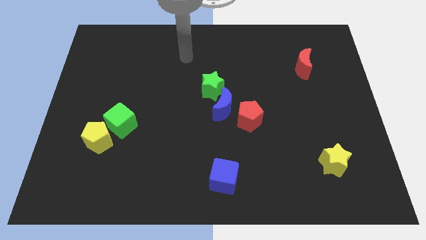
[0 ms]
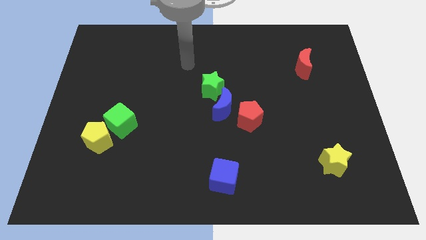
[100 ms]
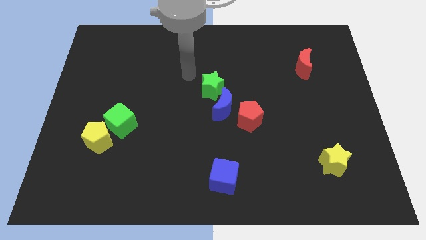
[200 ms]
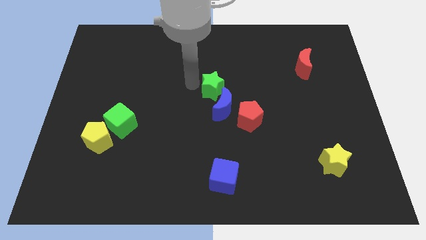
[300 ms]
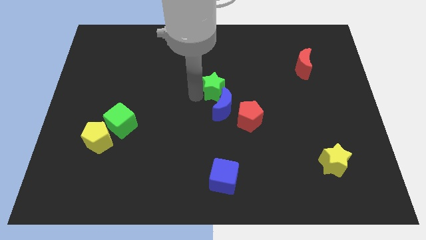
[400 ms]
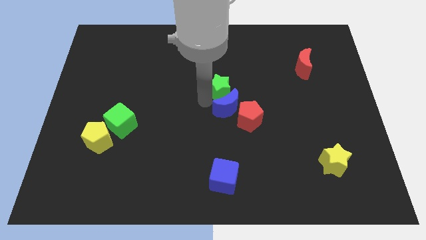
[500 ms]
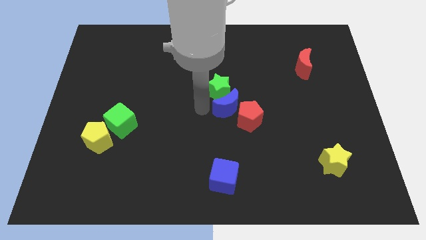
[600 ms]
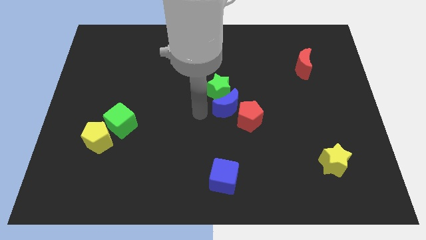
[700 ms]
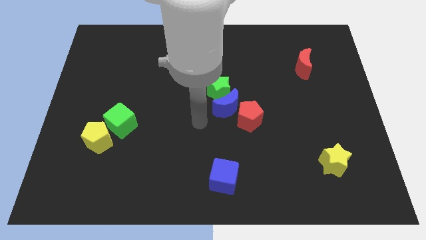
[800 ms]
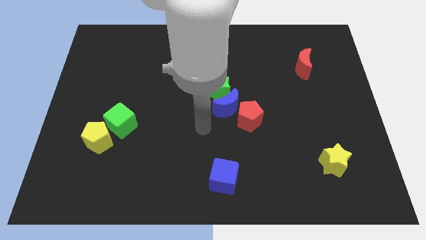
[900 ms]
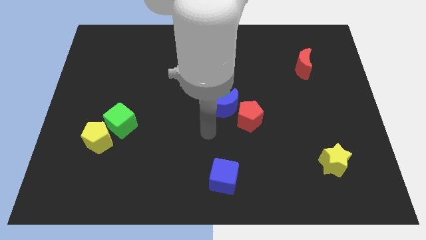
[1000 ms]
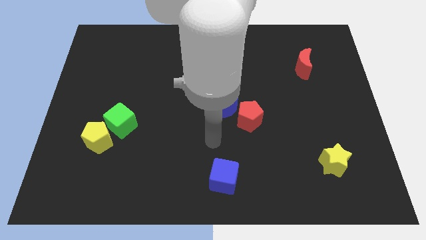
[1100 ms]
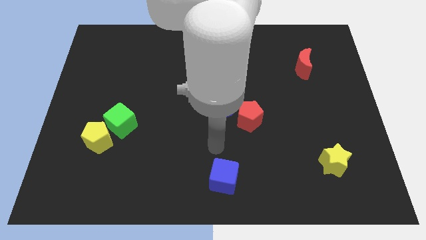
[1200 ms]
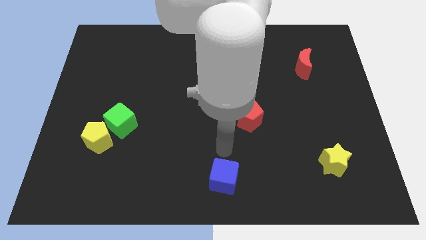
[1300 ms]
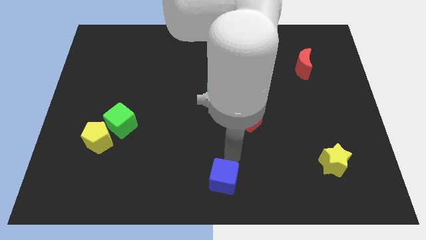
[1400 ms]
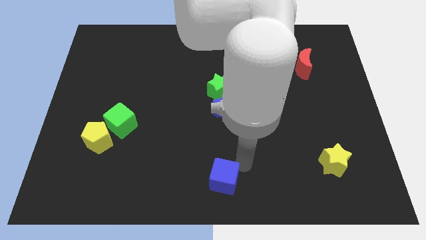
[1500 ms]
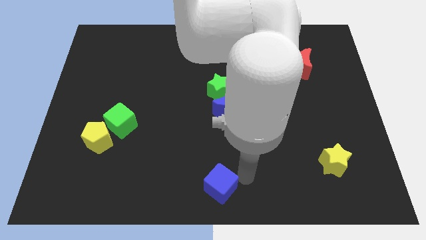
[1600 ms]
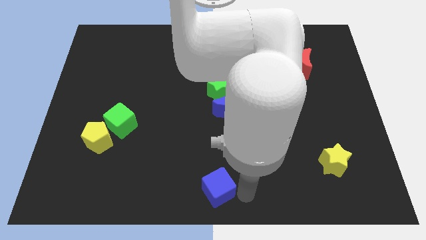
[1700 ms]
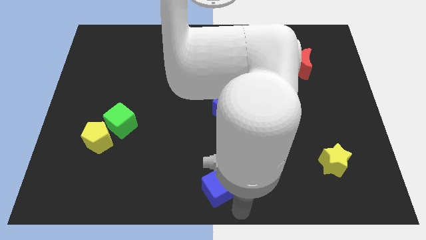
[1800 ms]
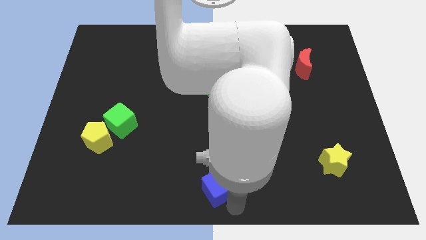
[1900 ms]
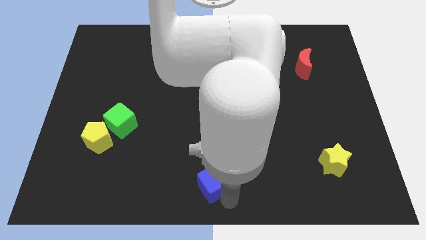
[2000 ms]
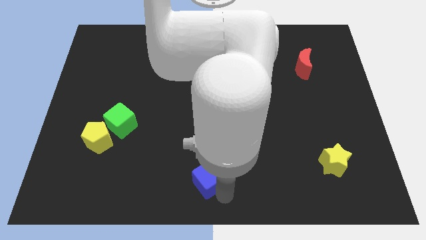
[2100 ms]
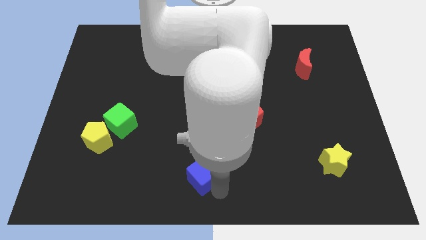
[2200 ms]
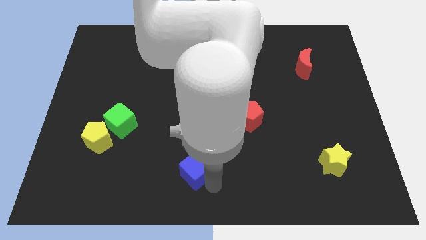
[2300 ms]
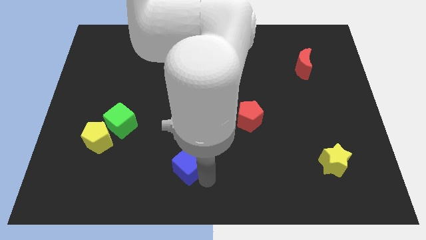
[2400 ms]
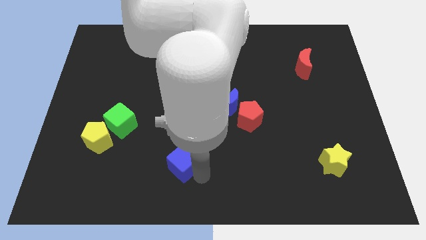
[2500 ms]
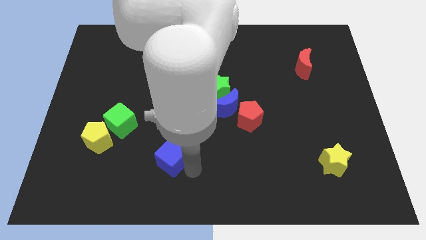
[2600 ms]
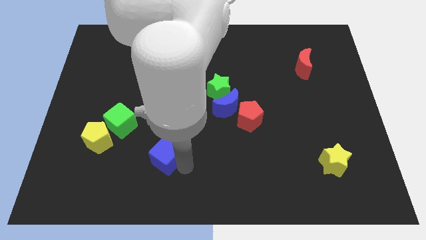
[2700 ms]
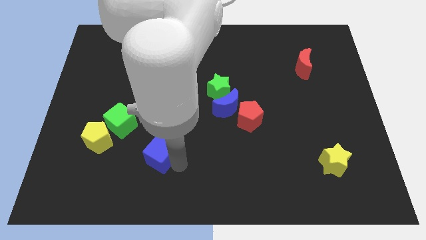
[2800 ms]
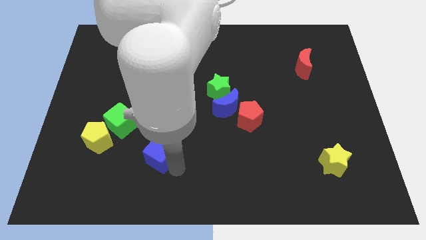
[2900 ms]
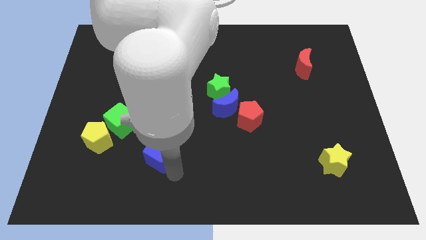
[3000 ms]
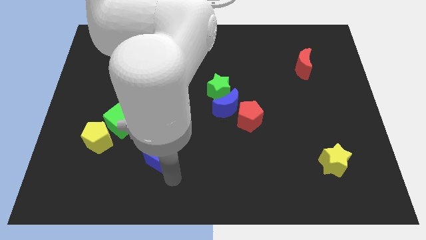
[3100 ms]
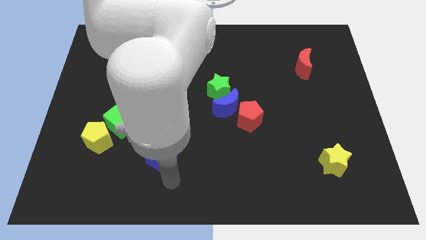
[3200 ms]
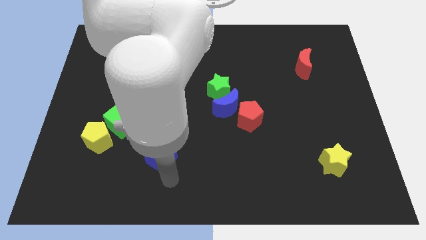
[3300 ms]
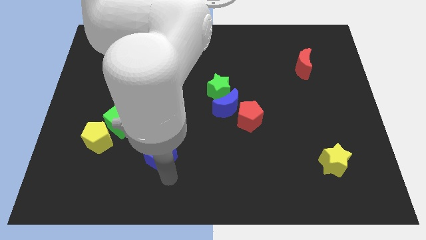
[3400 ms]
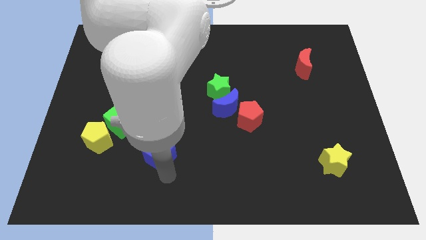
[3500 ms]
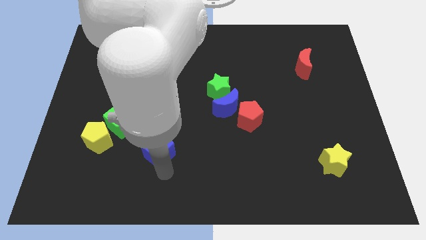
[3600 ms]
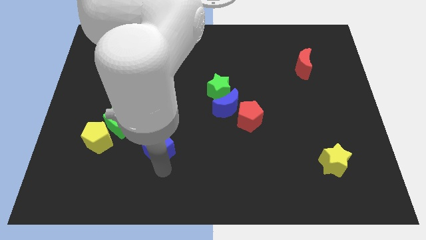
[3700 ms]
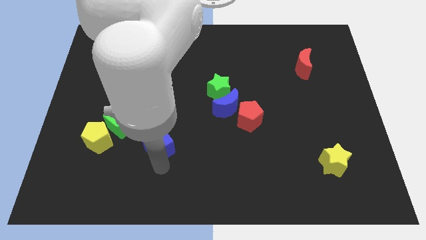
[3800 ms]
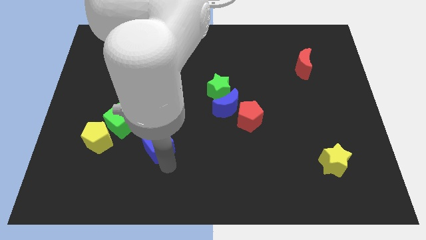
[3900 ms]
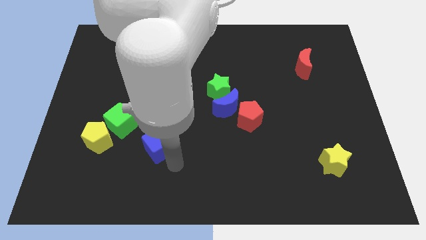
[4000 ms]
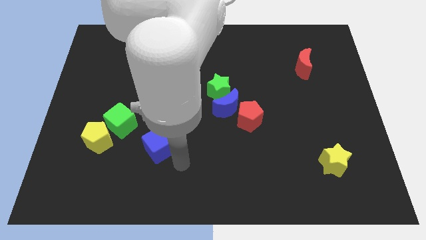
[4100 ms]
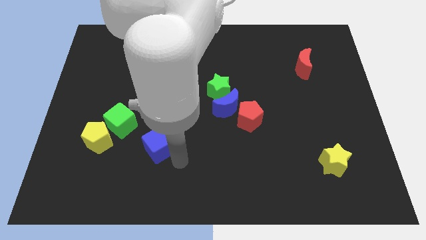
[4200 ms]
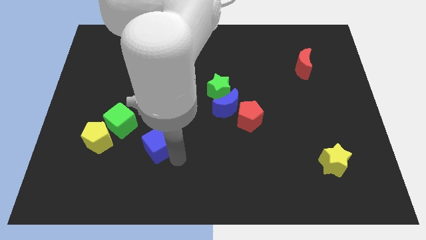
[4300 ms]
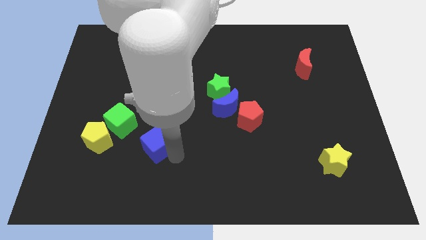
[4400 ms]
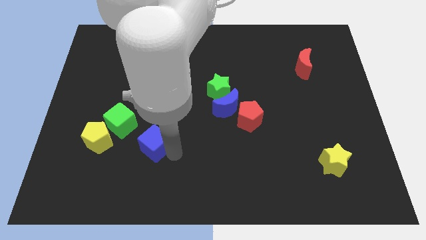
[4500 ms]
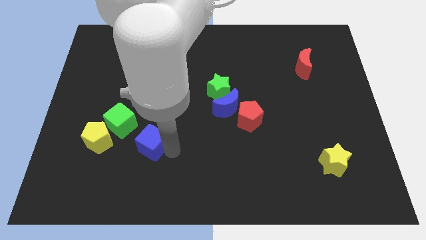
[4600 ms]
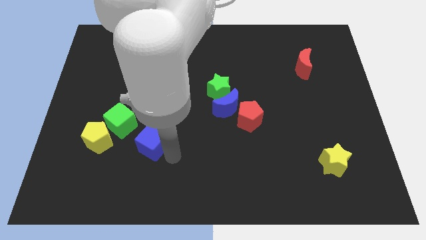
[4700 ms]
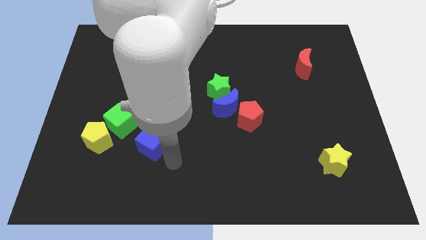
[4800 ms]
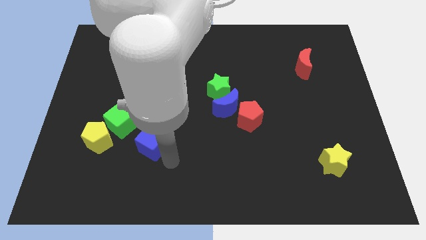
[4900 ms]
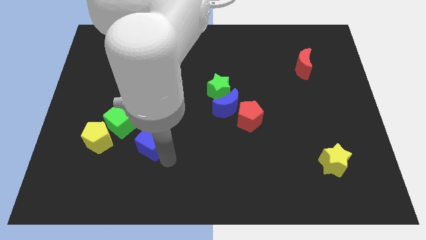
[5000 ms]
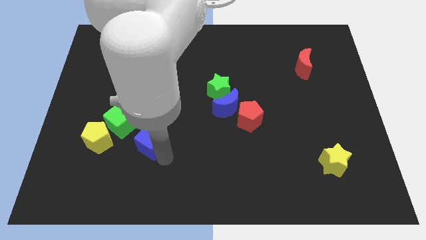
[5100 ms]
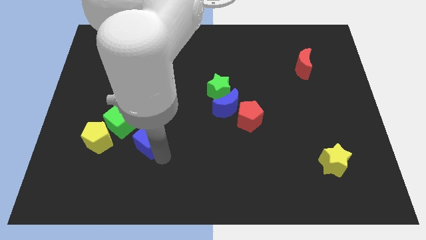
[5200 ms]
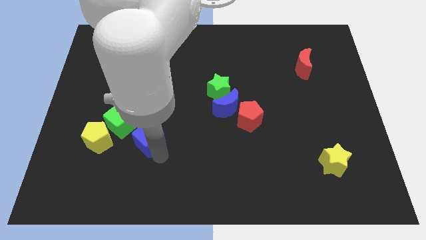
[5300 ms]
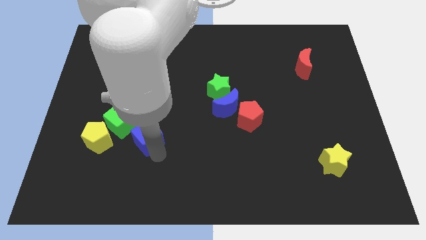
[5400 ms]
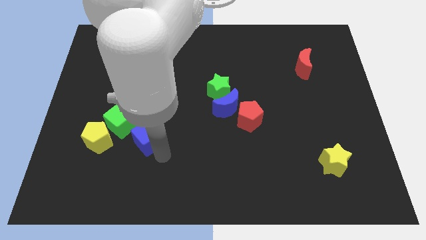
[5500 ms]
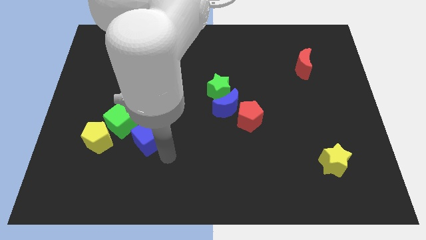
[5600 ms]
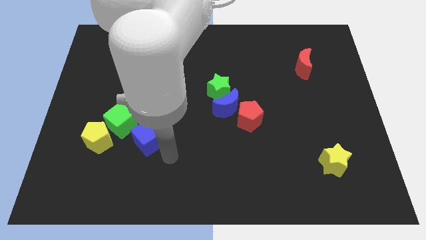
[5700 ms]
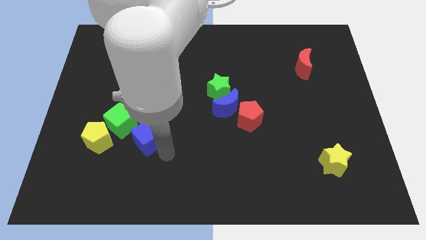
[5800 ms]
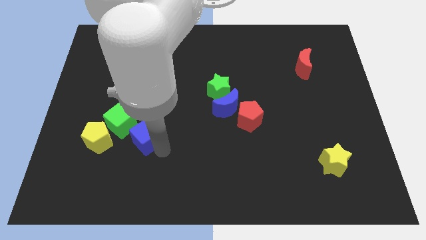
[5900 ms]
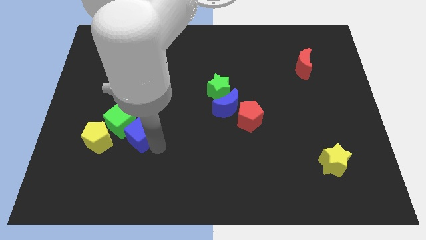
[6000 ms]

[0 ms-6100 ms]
move the blue cube next to the green cube
